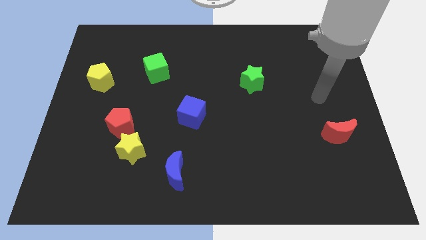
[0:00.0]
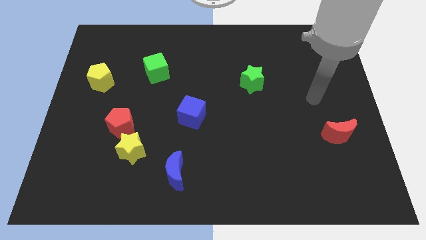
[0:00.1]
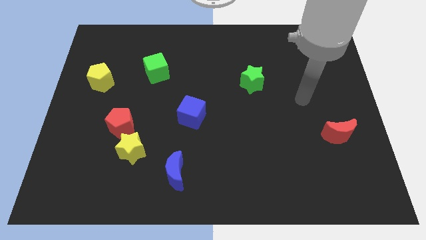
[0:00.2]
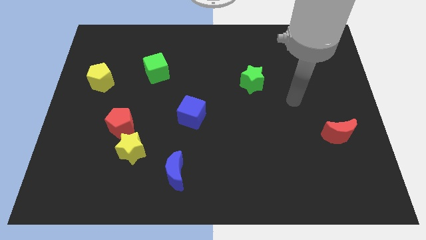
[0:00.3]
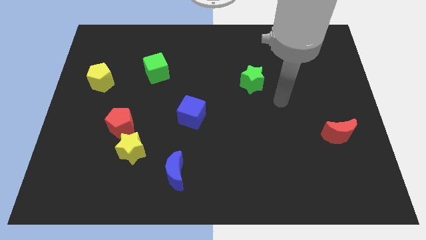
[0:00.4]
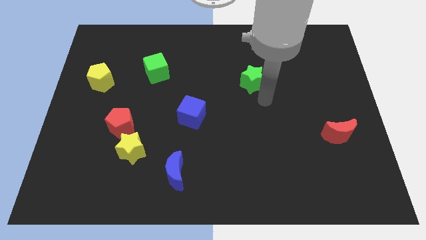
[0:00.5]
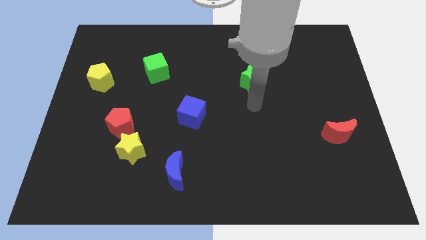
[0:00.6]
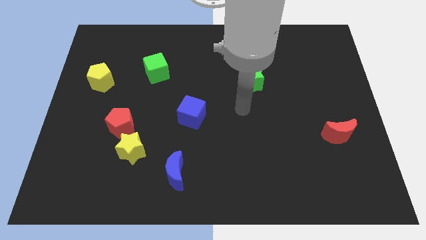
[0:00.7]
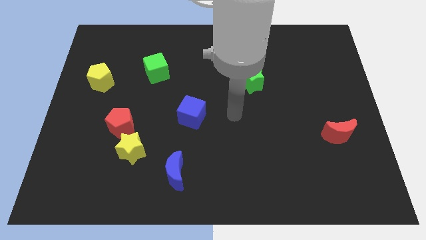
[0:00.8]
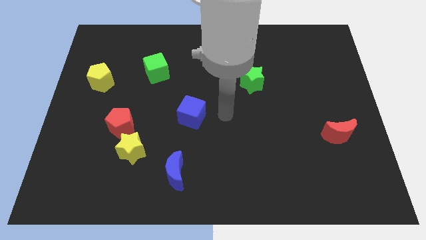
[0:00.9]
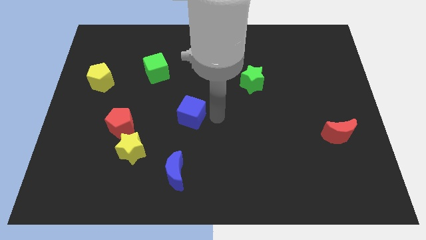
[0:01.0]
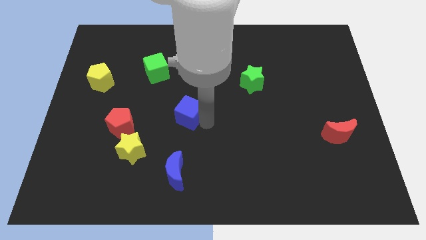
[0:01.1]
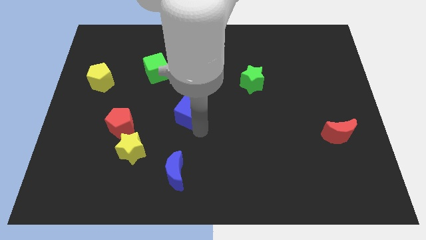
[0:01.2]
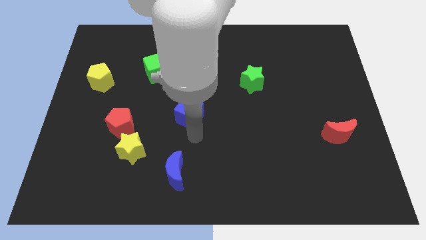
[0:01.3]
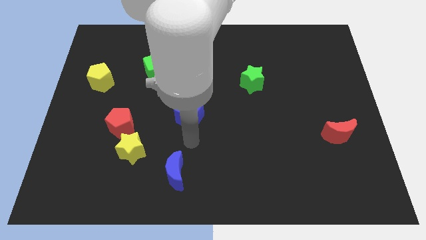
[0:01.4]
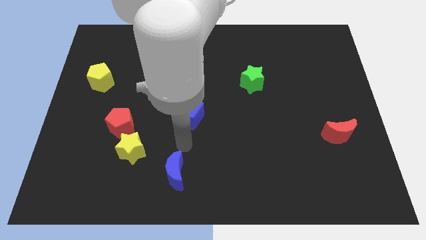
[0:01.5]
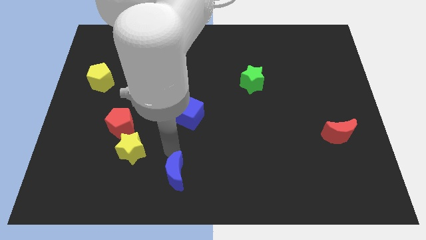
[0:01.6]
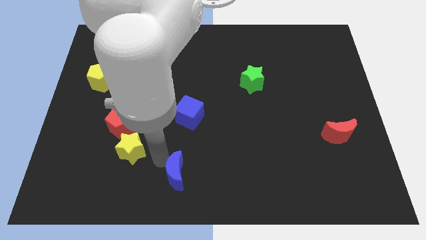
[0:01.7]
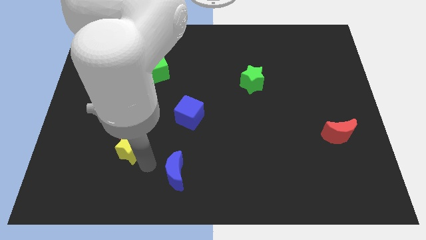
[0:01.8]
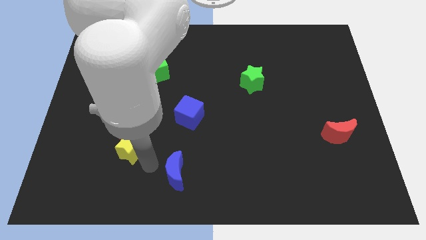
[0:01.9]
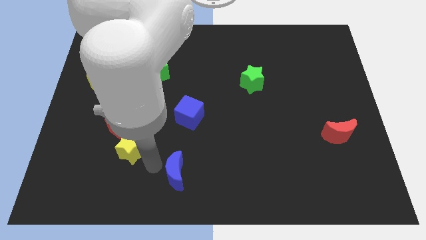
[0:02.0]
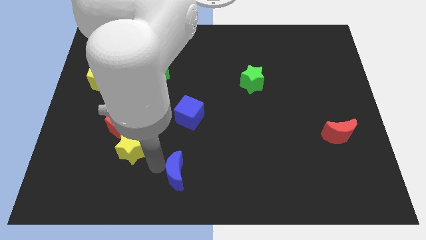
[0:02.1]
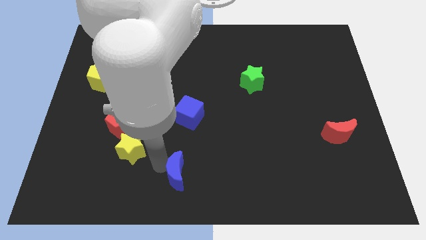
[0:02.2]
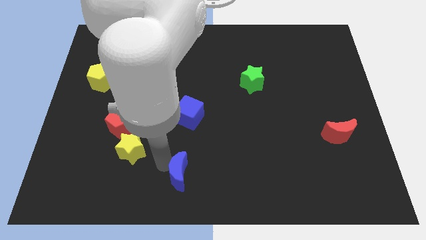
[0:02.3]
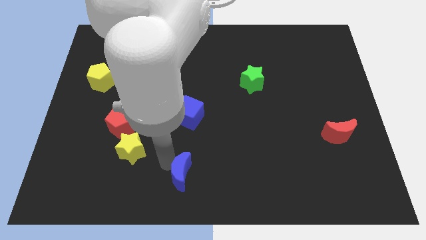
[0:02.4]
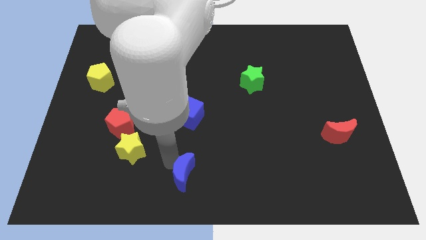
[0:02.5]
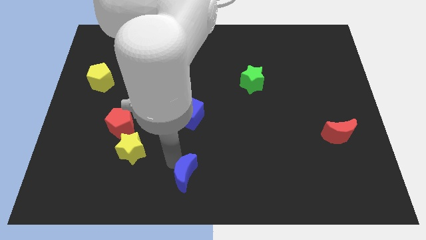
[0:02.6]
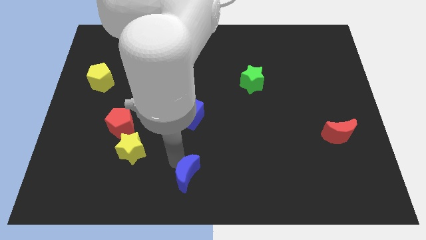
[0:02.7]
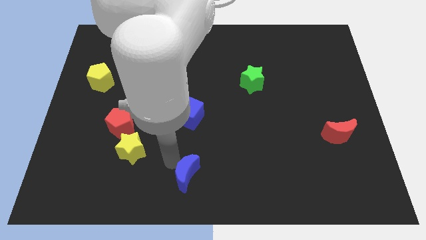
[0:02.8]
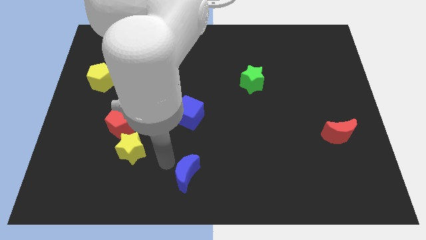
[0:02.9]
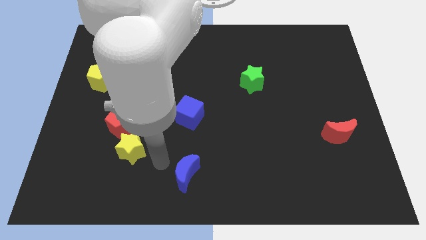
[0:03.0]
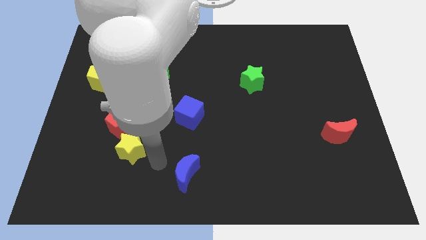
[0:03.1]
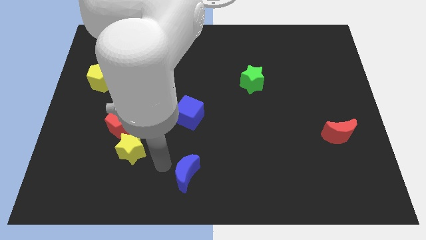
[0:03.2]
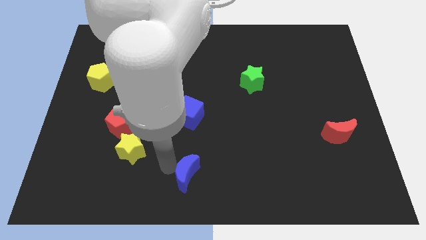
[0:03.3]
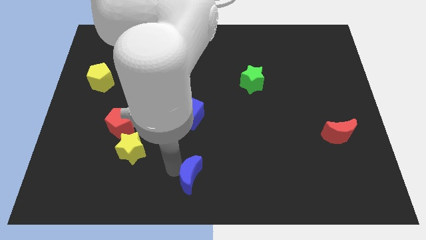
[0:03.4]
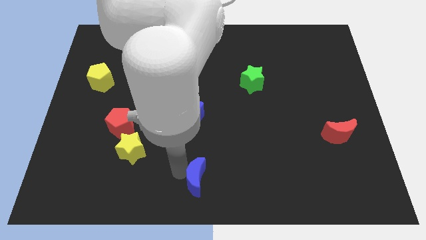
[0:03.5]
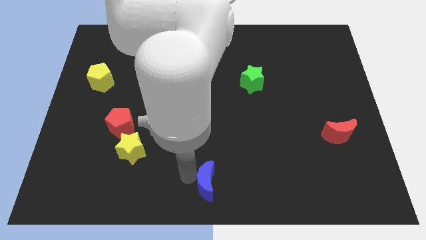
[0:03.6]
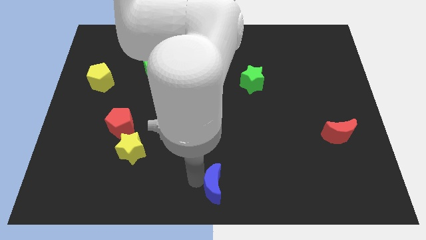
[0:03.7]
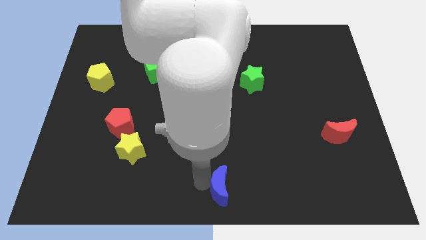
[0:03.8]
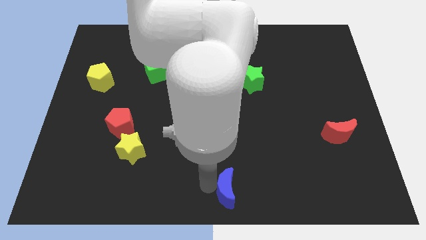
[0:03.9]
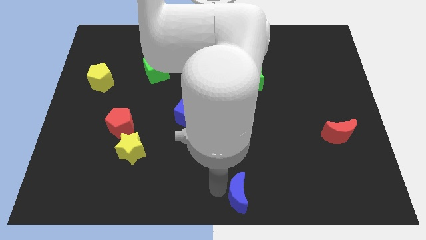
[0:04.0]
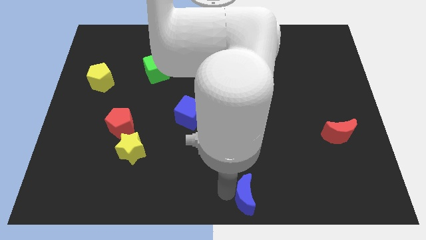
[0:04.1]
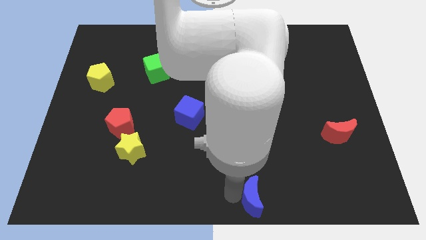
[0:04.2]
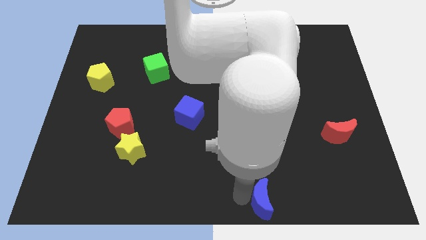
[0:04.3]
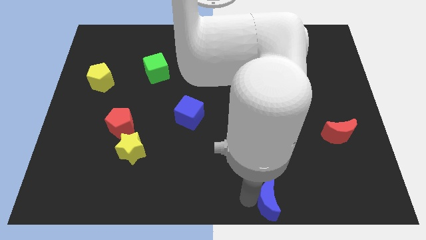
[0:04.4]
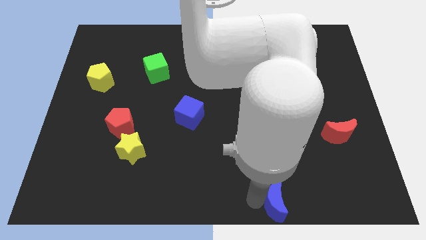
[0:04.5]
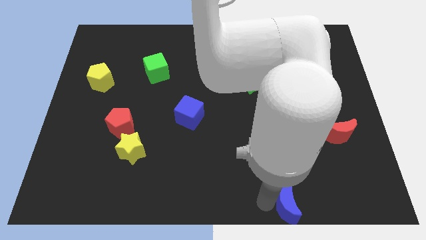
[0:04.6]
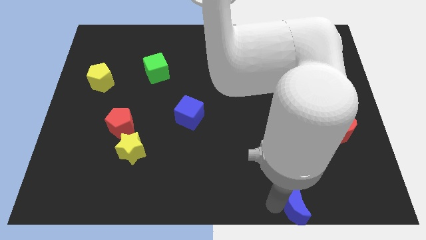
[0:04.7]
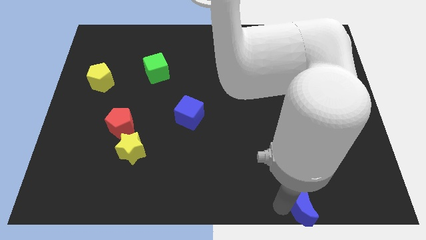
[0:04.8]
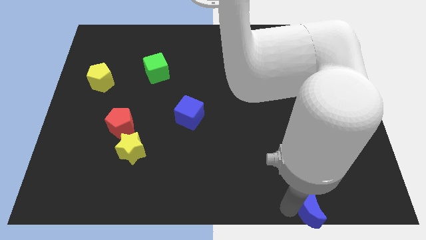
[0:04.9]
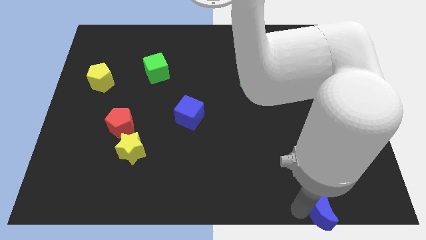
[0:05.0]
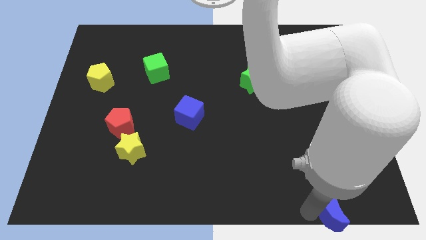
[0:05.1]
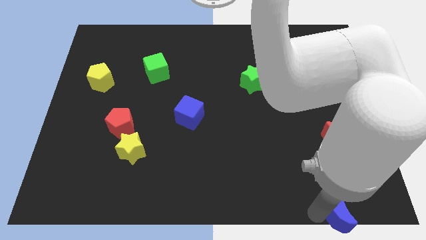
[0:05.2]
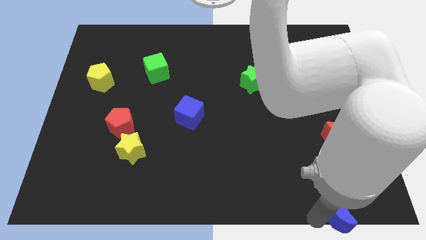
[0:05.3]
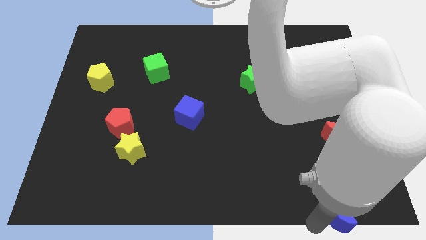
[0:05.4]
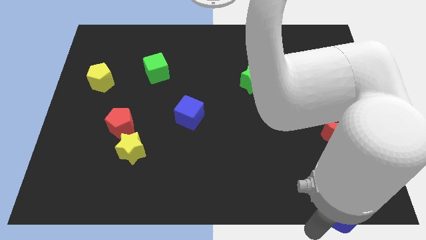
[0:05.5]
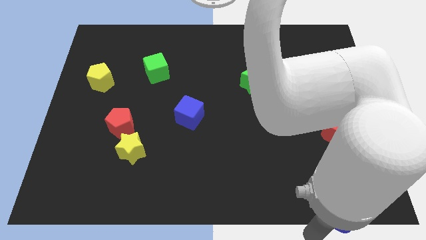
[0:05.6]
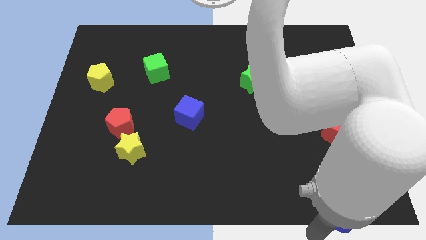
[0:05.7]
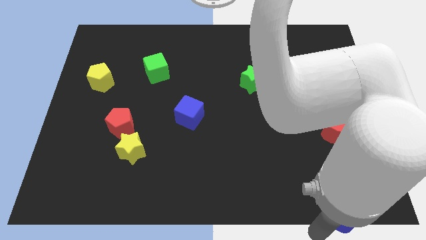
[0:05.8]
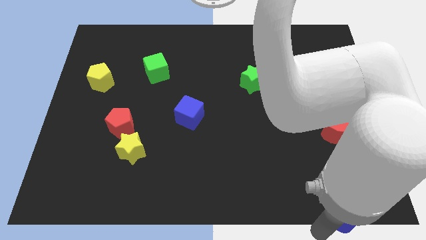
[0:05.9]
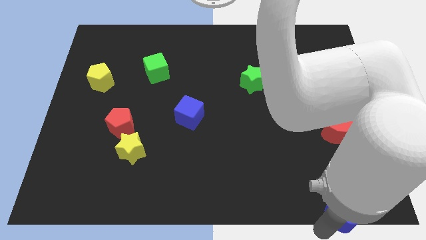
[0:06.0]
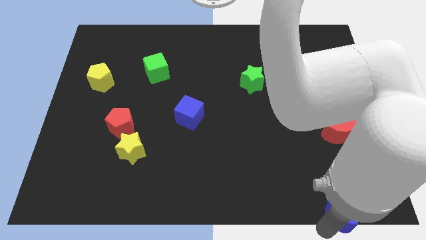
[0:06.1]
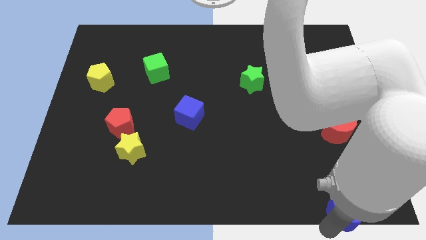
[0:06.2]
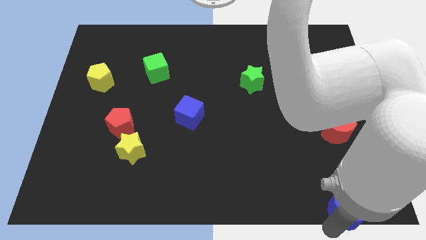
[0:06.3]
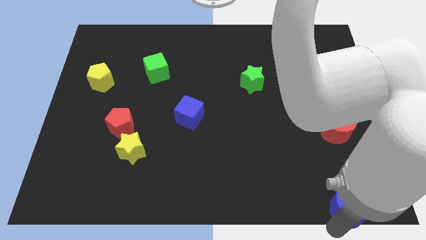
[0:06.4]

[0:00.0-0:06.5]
slide the blue moon to the lower right corner
